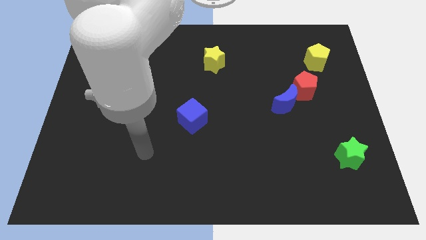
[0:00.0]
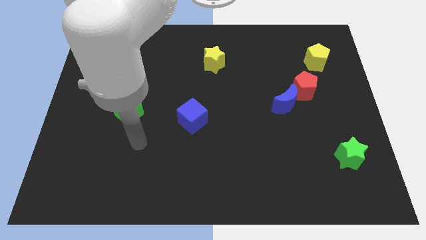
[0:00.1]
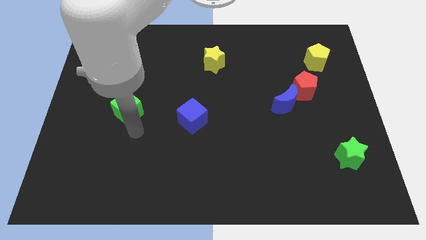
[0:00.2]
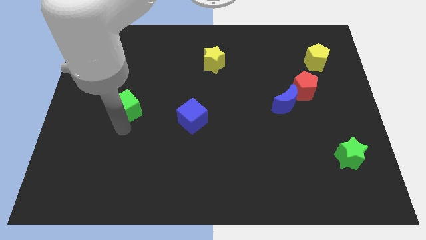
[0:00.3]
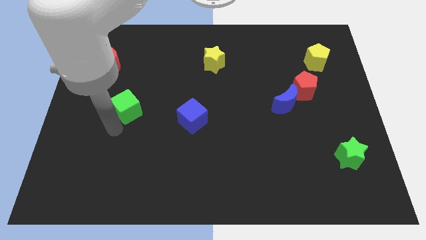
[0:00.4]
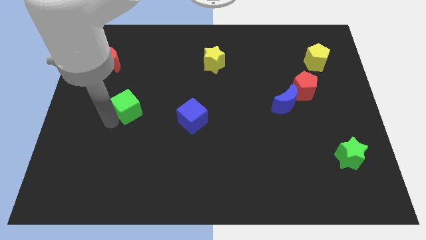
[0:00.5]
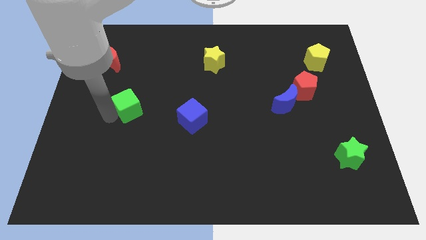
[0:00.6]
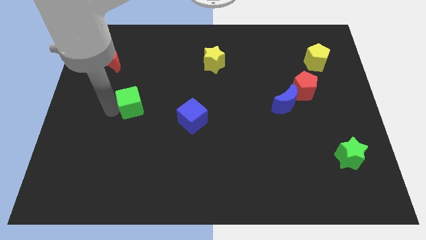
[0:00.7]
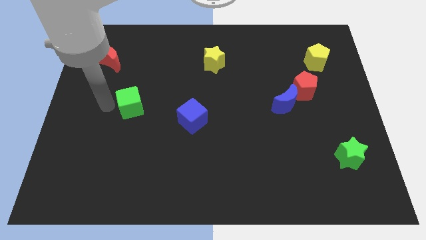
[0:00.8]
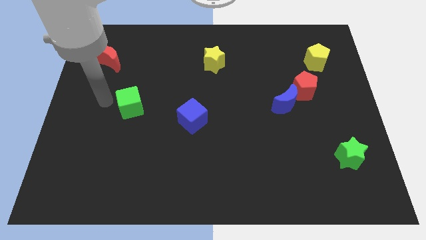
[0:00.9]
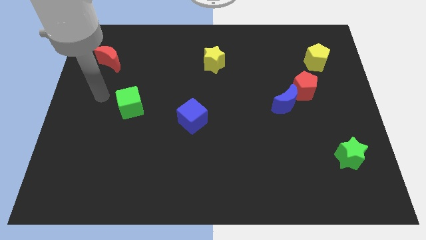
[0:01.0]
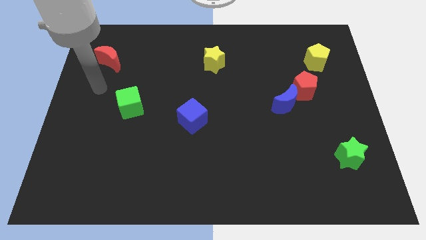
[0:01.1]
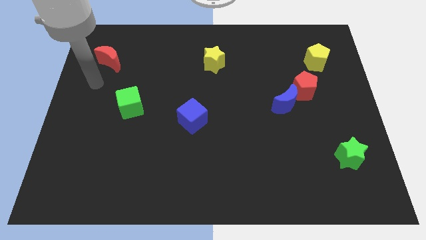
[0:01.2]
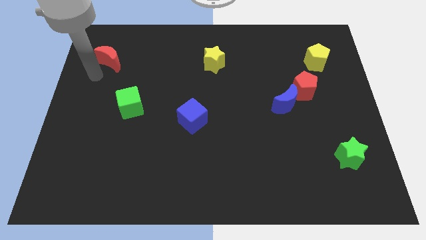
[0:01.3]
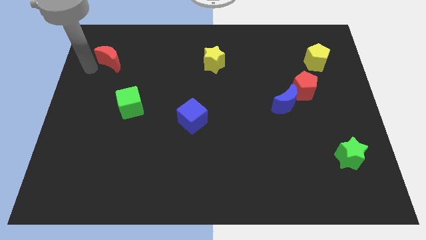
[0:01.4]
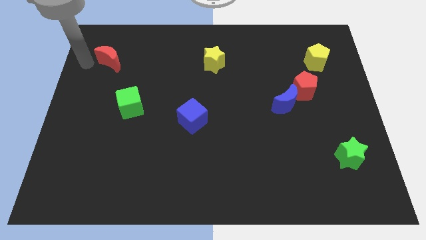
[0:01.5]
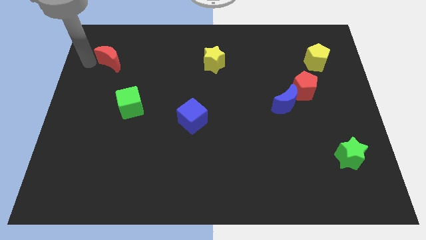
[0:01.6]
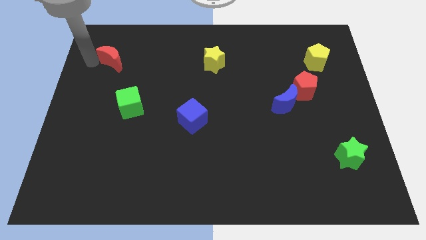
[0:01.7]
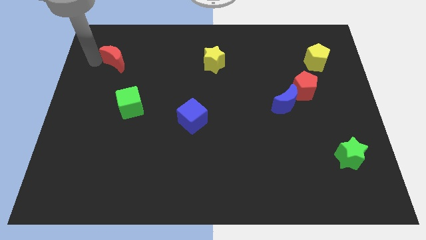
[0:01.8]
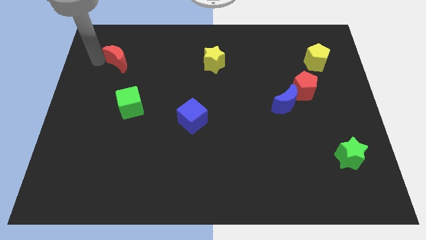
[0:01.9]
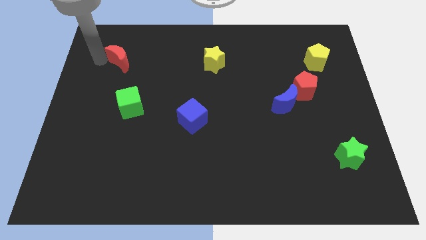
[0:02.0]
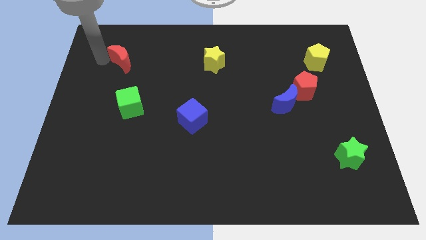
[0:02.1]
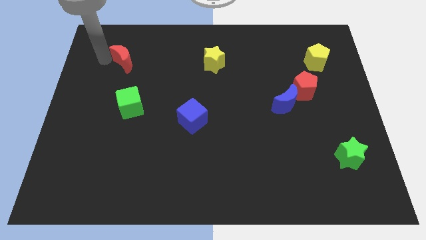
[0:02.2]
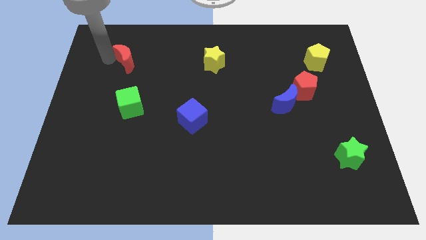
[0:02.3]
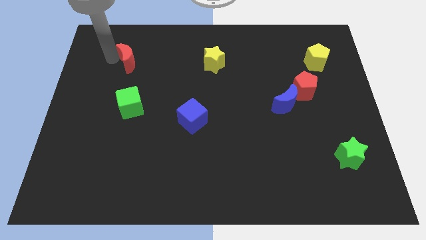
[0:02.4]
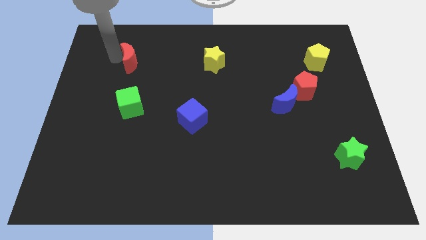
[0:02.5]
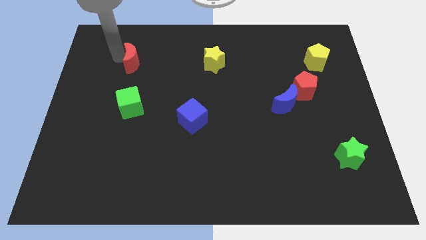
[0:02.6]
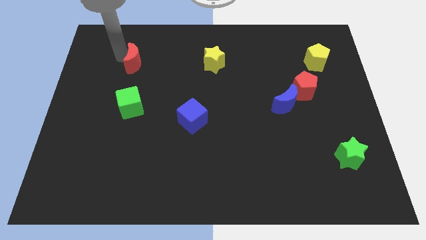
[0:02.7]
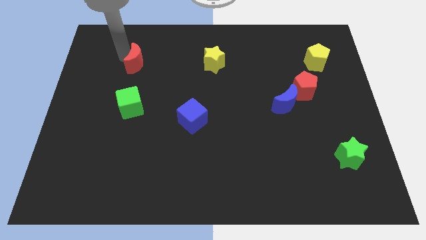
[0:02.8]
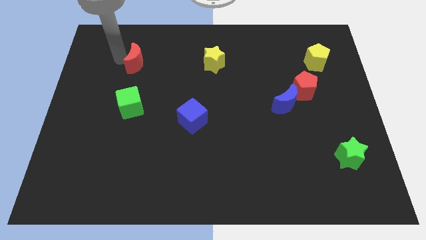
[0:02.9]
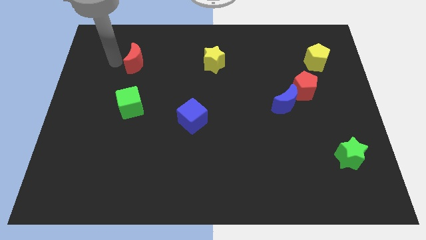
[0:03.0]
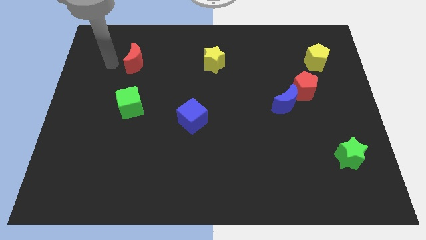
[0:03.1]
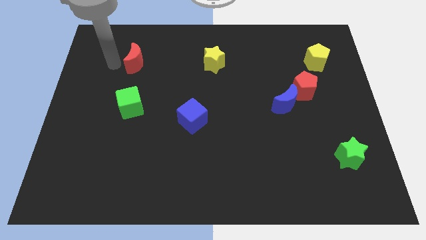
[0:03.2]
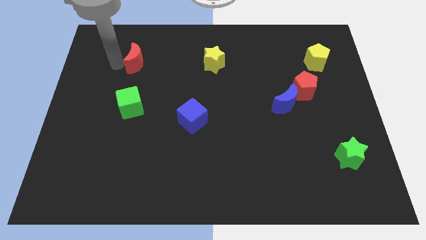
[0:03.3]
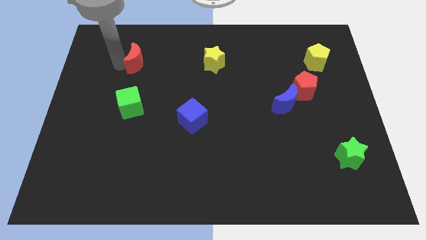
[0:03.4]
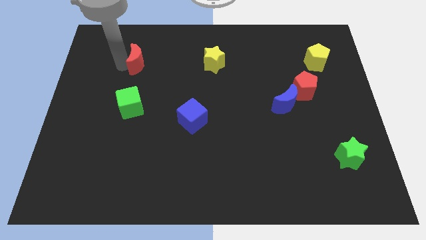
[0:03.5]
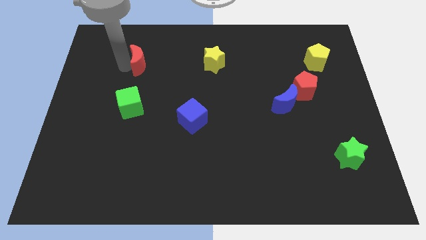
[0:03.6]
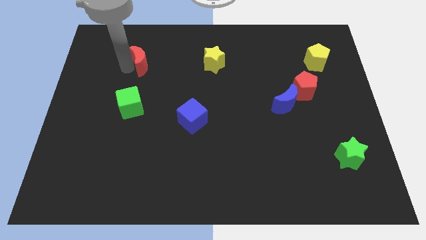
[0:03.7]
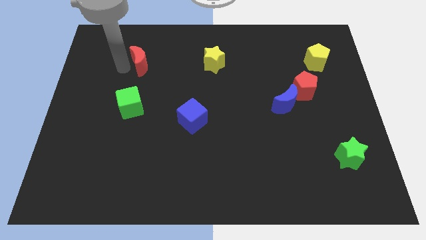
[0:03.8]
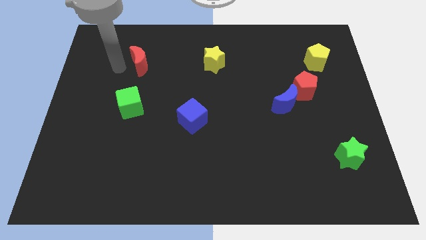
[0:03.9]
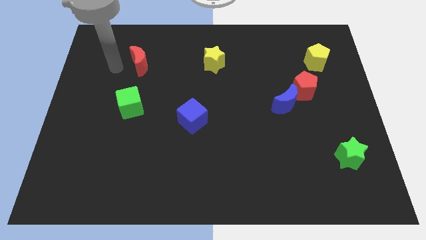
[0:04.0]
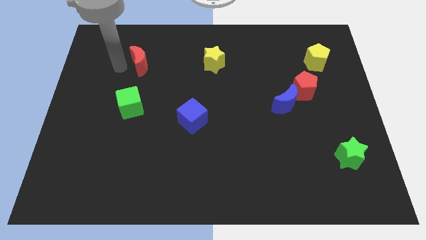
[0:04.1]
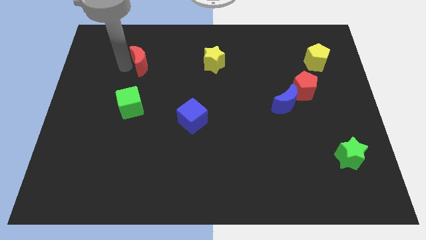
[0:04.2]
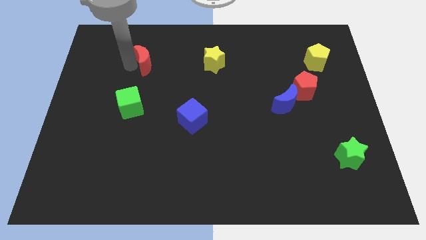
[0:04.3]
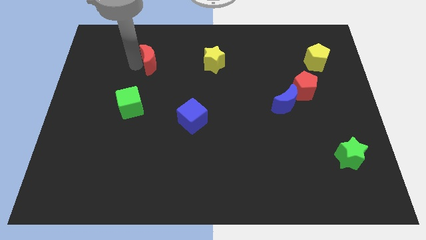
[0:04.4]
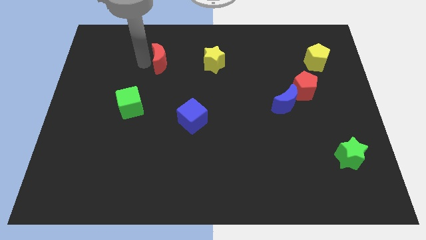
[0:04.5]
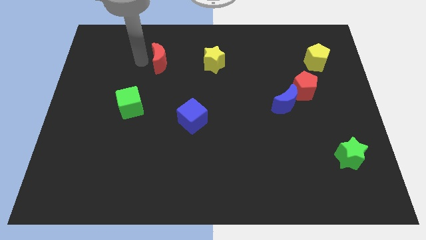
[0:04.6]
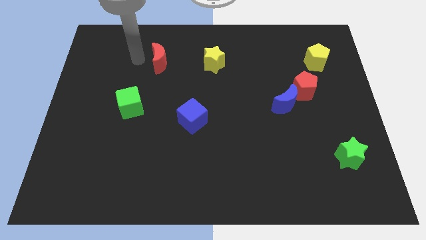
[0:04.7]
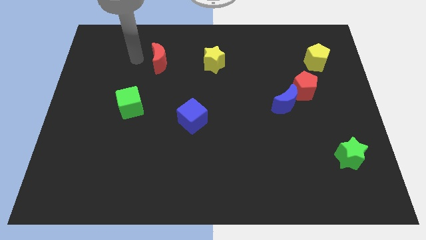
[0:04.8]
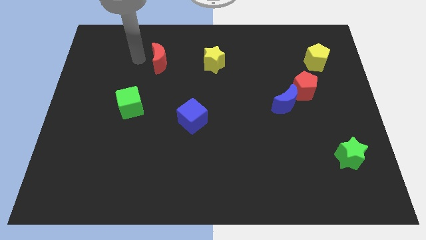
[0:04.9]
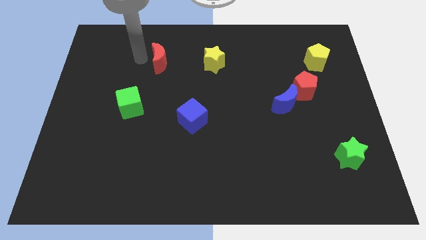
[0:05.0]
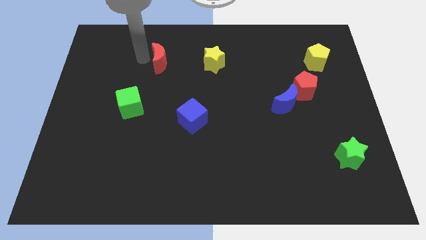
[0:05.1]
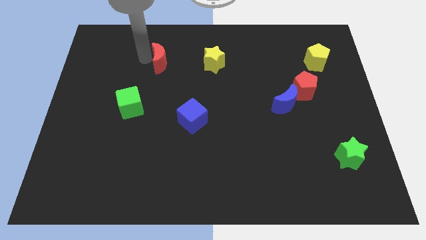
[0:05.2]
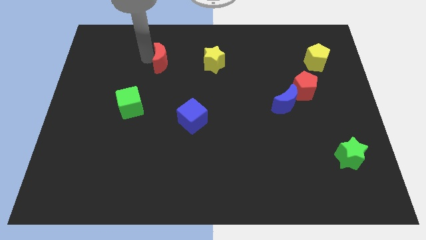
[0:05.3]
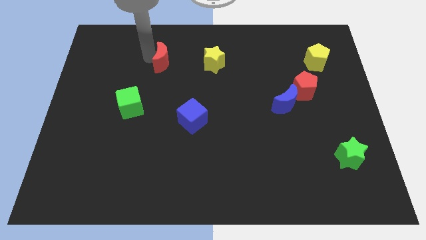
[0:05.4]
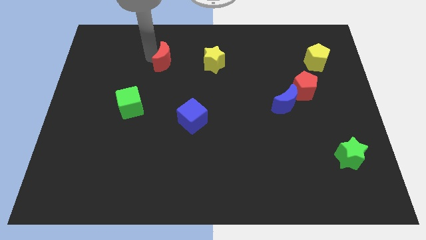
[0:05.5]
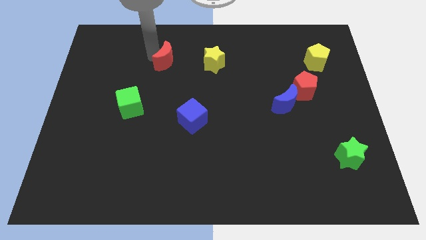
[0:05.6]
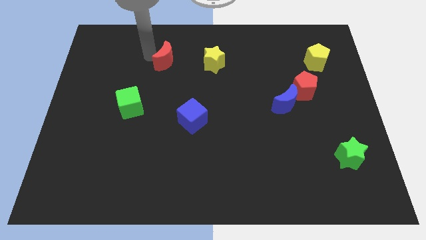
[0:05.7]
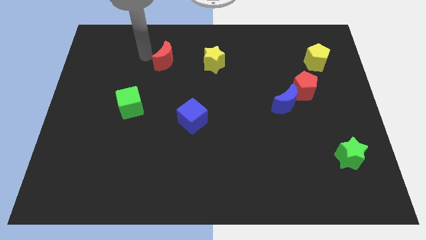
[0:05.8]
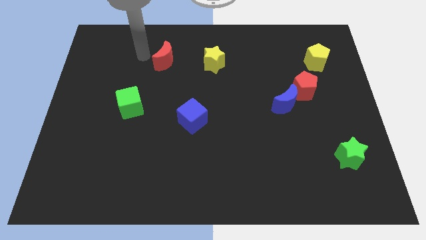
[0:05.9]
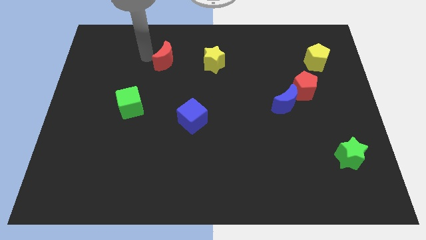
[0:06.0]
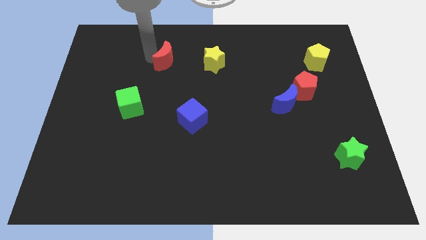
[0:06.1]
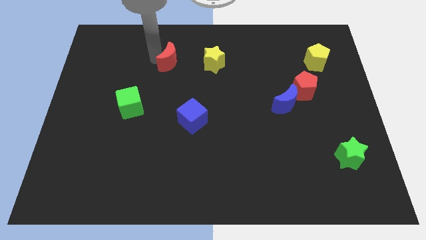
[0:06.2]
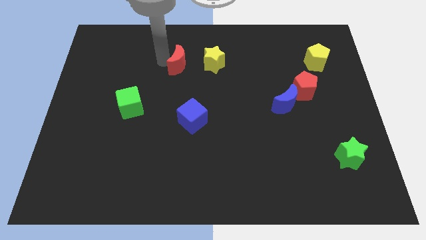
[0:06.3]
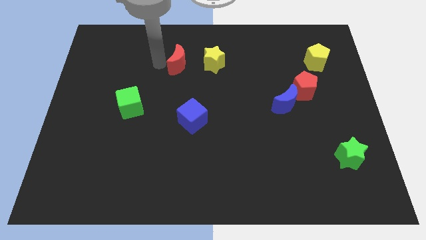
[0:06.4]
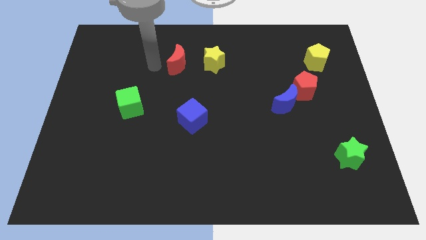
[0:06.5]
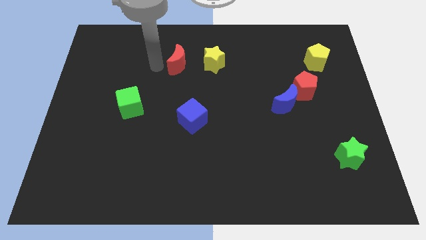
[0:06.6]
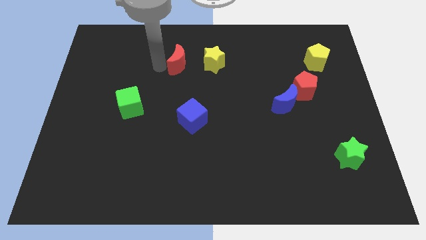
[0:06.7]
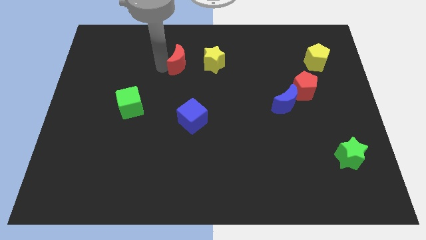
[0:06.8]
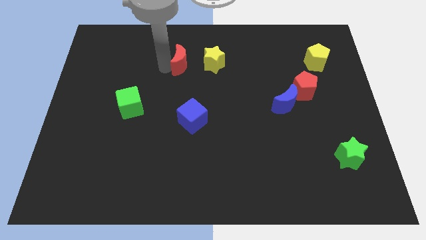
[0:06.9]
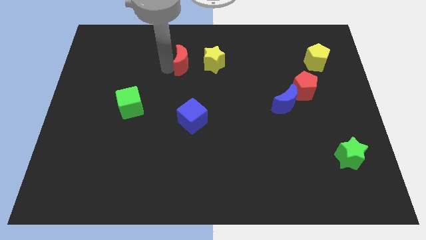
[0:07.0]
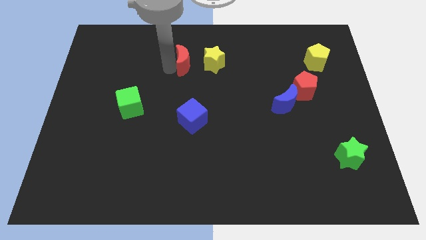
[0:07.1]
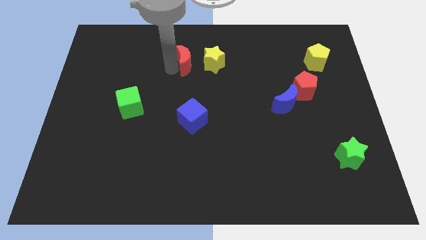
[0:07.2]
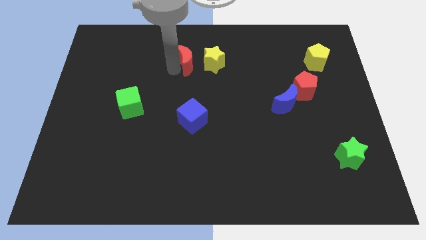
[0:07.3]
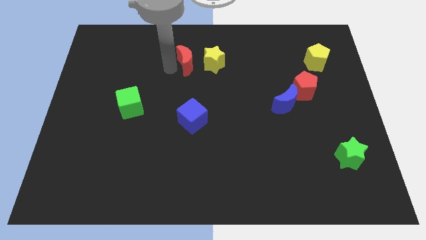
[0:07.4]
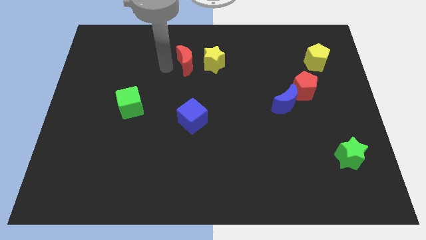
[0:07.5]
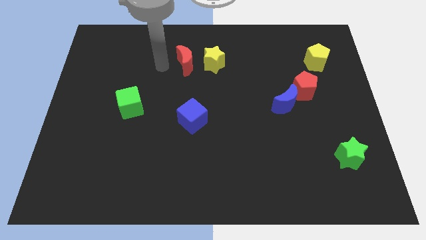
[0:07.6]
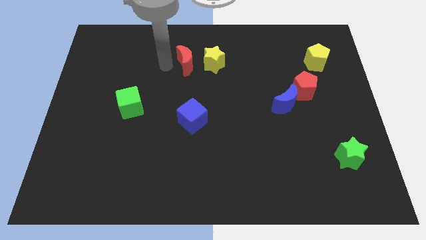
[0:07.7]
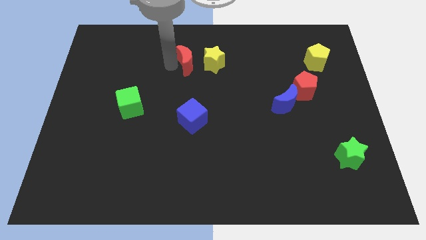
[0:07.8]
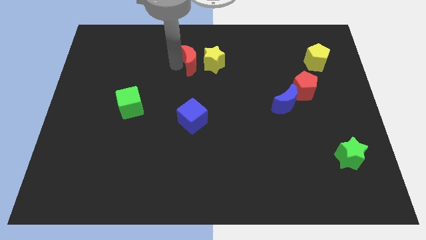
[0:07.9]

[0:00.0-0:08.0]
slide the red moon towards the yellow star
